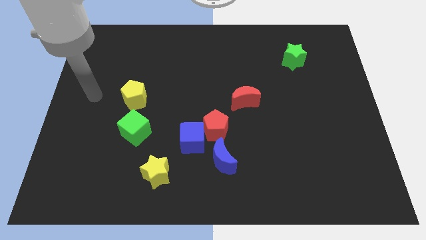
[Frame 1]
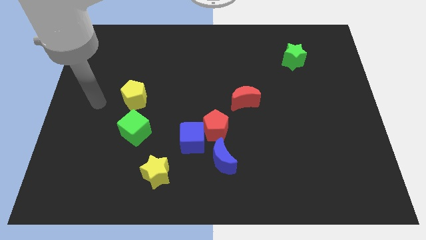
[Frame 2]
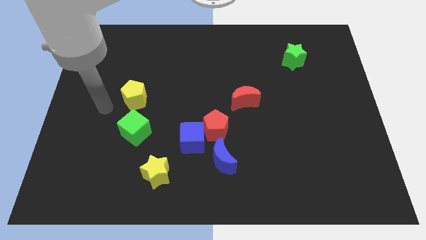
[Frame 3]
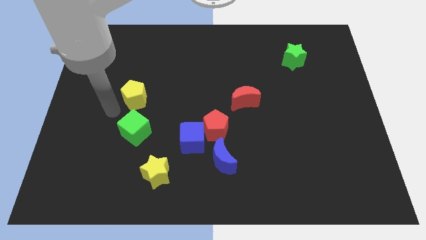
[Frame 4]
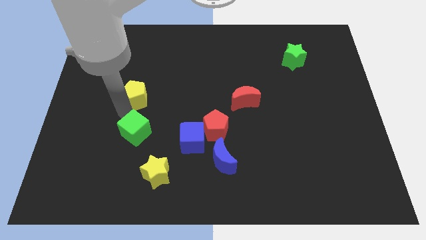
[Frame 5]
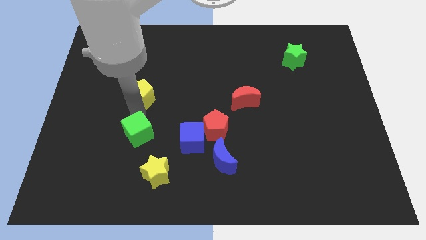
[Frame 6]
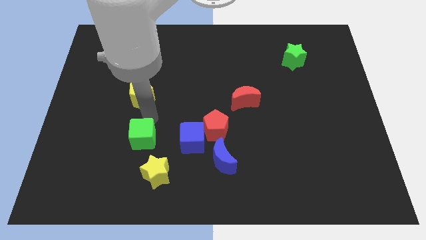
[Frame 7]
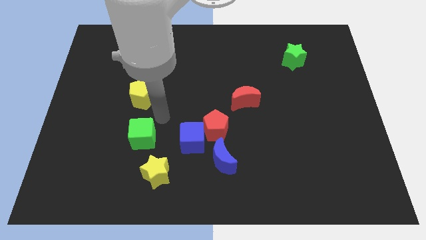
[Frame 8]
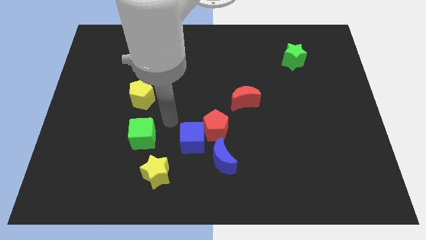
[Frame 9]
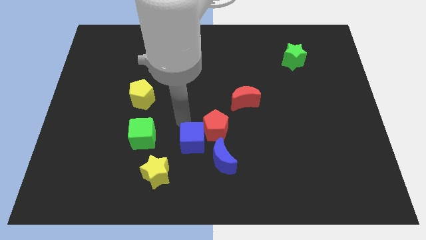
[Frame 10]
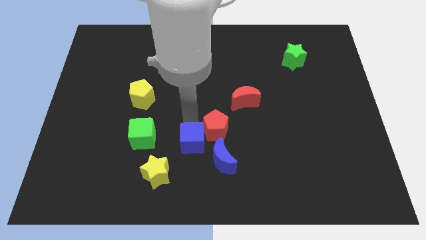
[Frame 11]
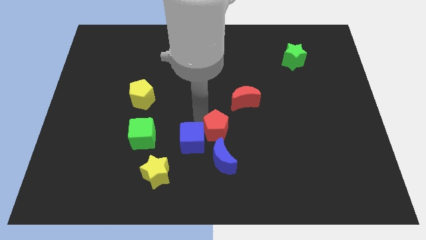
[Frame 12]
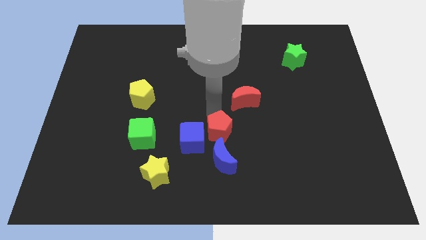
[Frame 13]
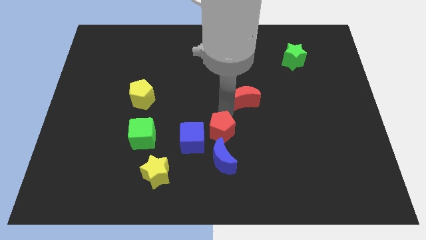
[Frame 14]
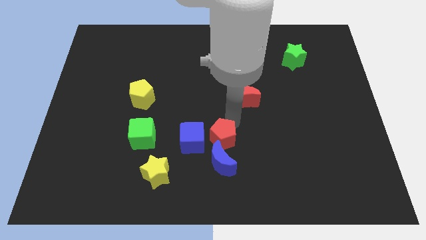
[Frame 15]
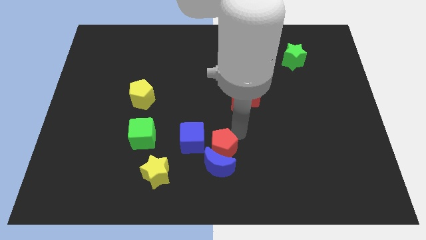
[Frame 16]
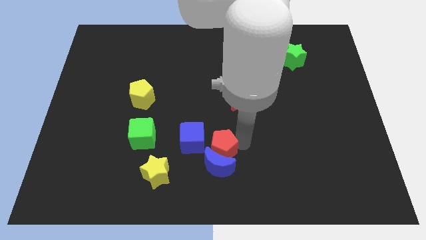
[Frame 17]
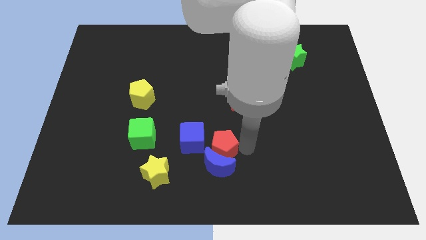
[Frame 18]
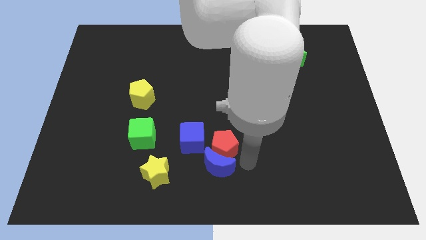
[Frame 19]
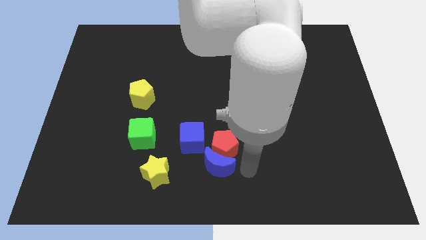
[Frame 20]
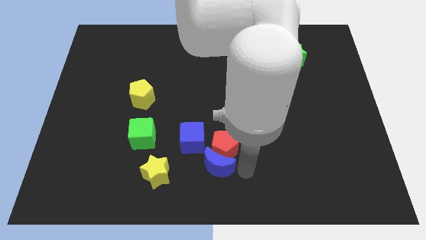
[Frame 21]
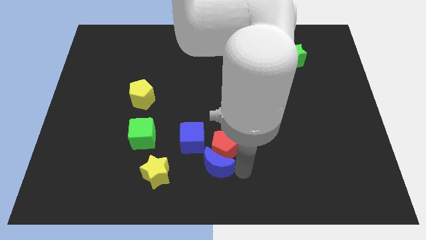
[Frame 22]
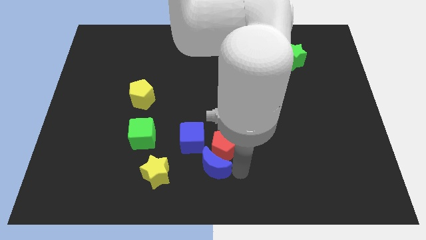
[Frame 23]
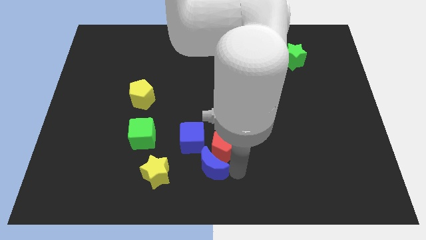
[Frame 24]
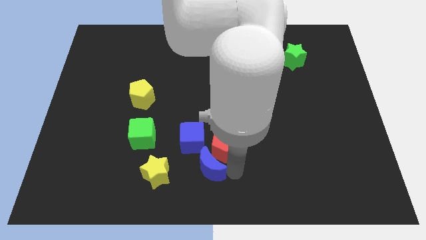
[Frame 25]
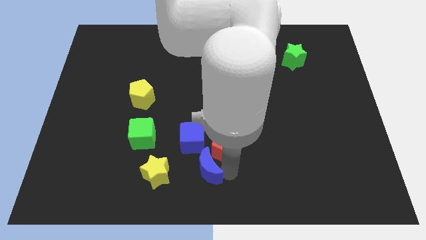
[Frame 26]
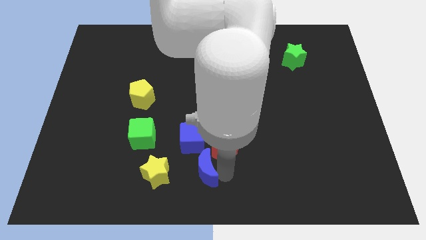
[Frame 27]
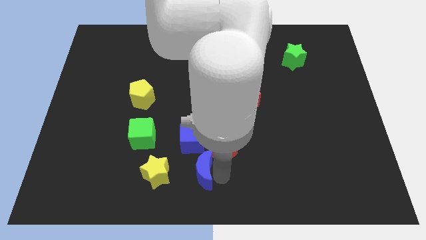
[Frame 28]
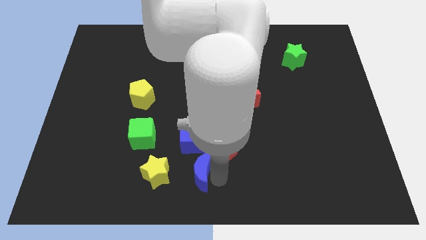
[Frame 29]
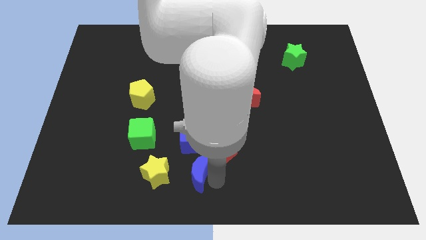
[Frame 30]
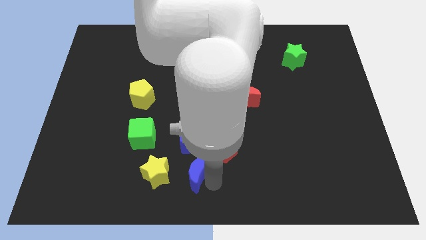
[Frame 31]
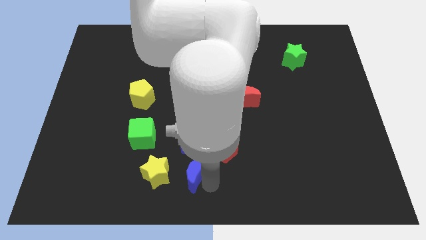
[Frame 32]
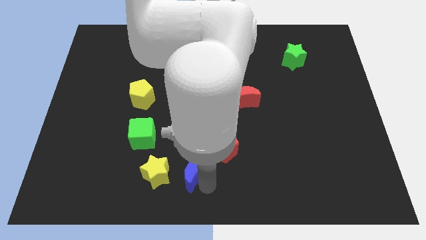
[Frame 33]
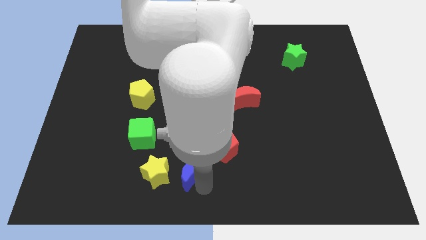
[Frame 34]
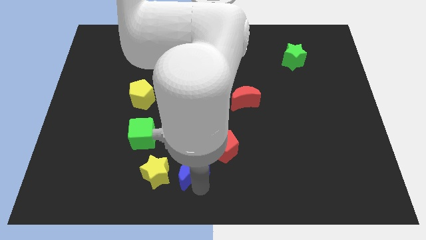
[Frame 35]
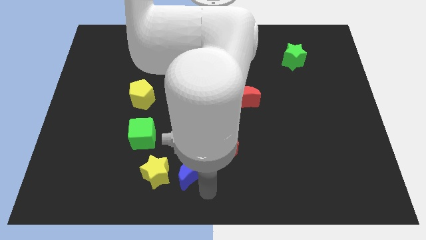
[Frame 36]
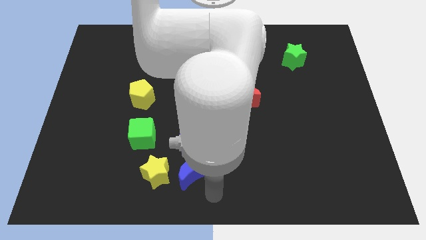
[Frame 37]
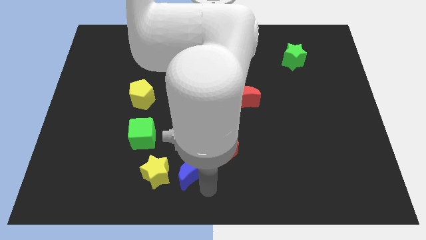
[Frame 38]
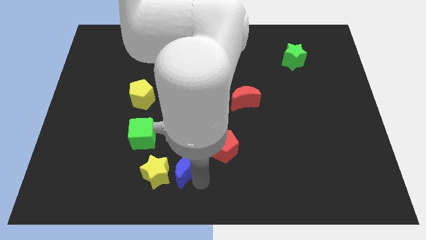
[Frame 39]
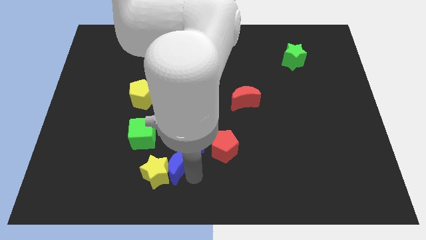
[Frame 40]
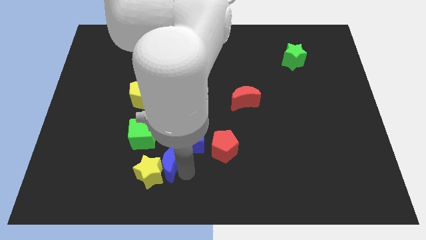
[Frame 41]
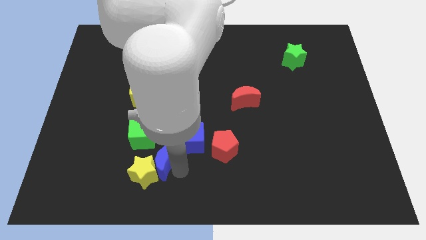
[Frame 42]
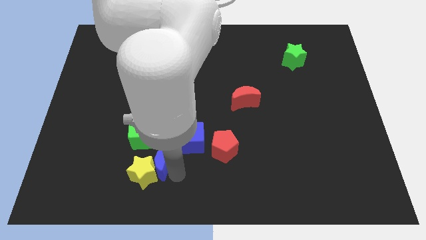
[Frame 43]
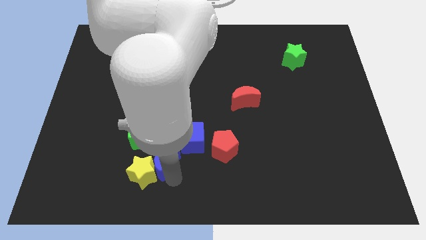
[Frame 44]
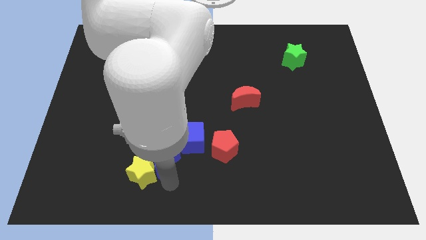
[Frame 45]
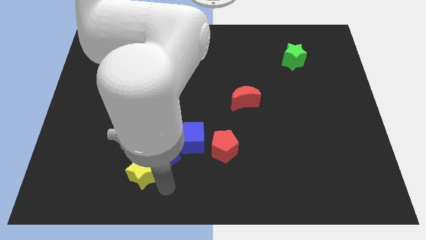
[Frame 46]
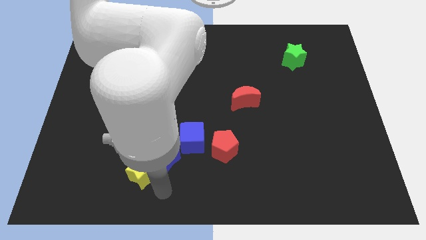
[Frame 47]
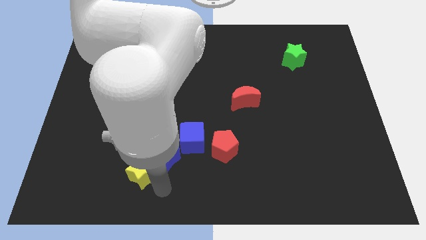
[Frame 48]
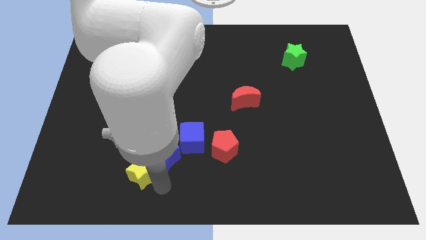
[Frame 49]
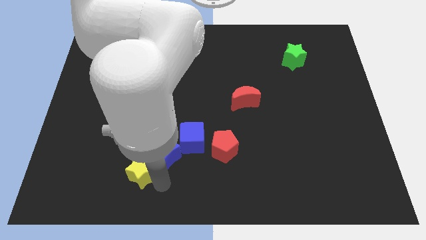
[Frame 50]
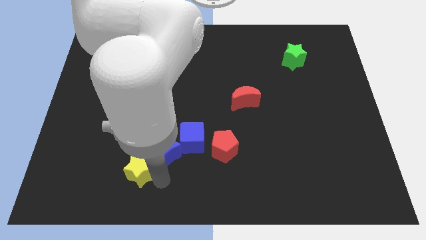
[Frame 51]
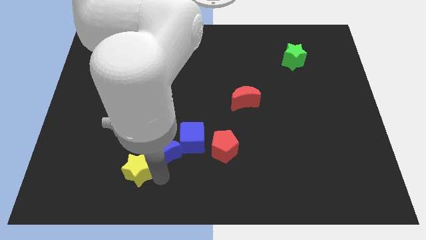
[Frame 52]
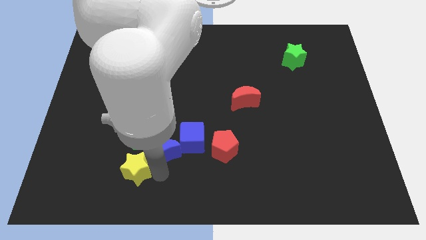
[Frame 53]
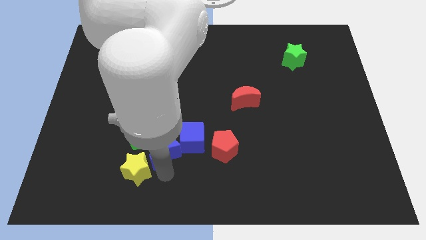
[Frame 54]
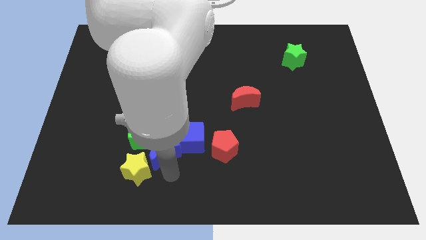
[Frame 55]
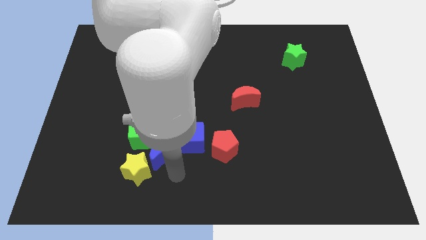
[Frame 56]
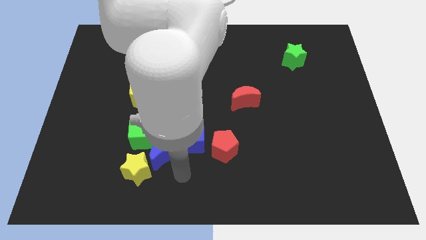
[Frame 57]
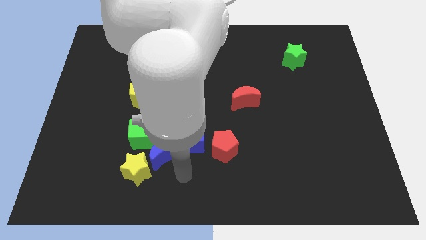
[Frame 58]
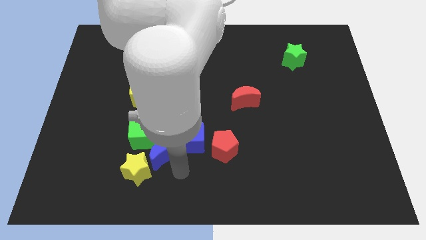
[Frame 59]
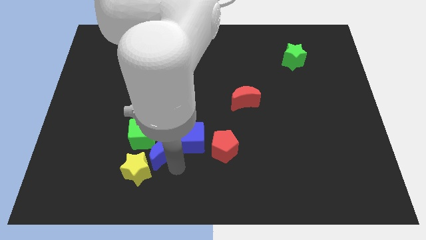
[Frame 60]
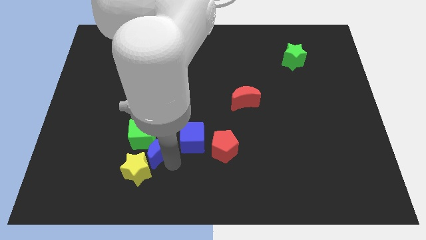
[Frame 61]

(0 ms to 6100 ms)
move the blue moon towards the green cube

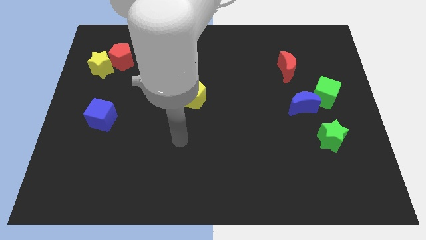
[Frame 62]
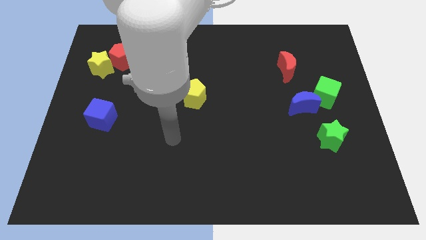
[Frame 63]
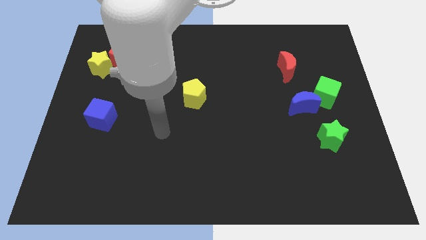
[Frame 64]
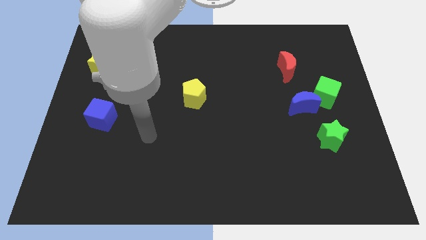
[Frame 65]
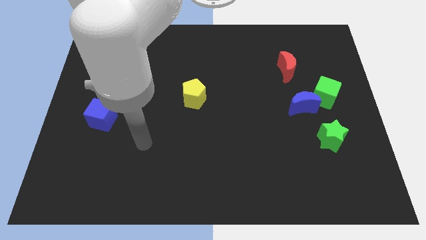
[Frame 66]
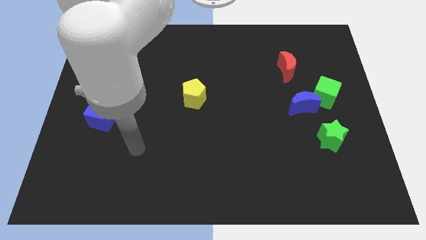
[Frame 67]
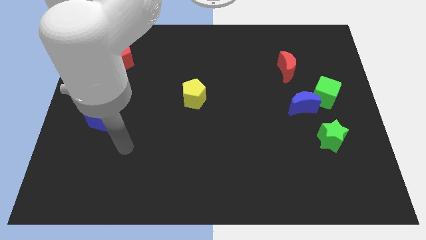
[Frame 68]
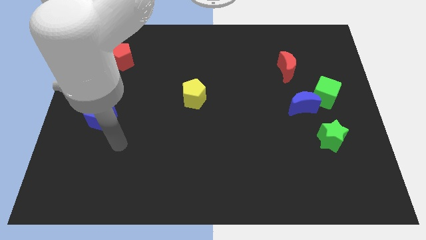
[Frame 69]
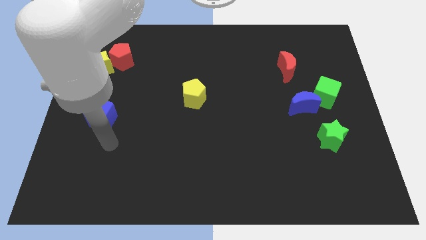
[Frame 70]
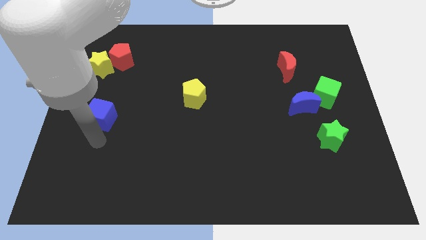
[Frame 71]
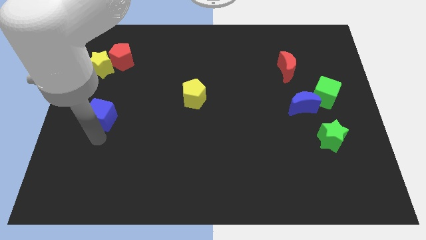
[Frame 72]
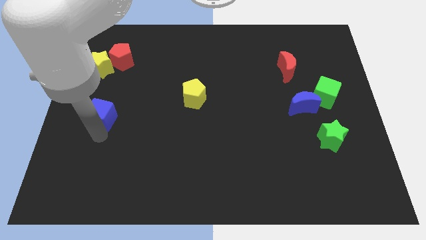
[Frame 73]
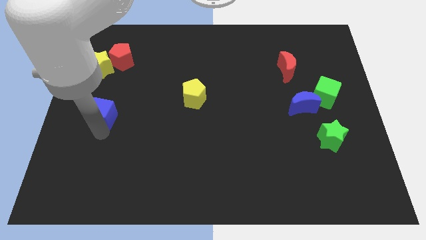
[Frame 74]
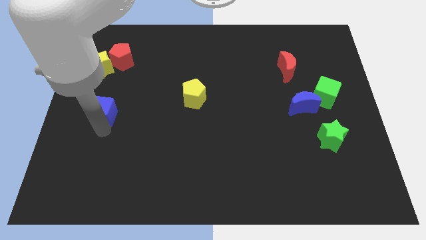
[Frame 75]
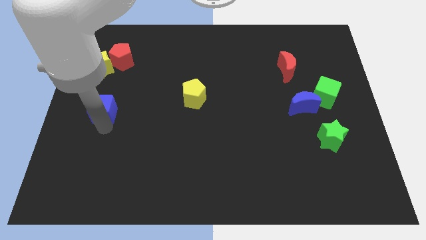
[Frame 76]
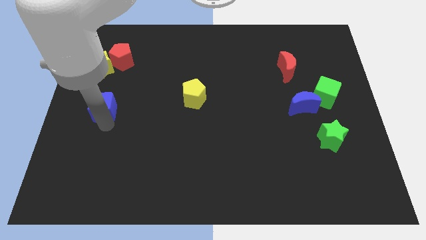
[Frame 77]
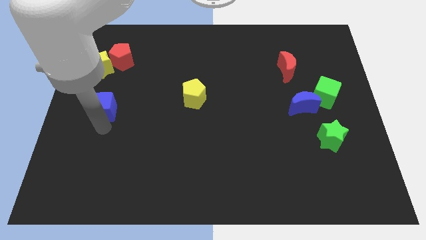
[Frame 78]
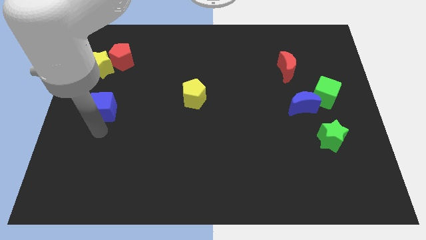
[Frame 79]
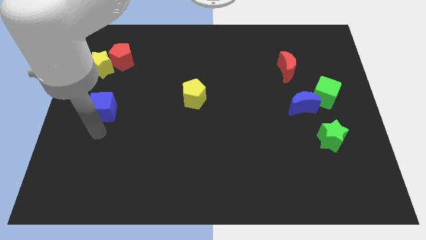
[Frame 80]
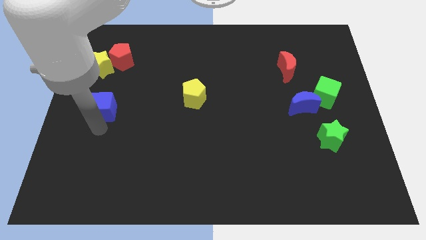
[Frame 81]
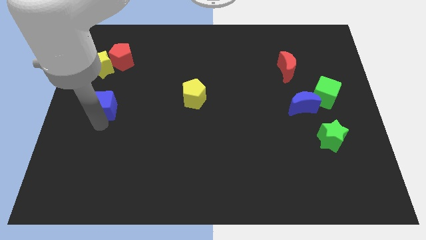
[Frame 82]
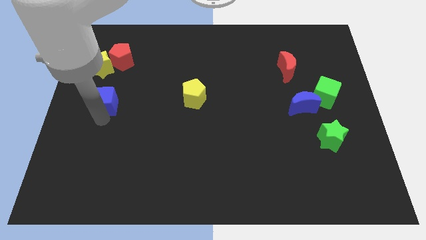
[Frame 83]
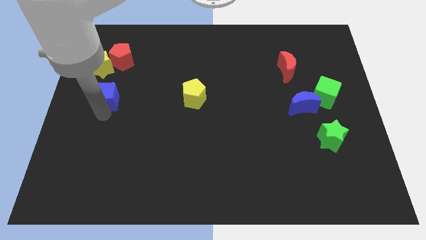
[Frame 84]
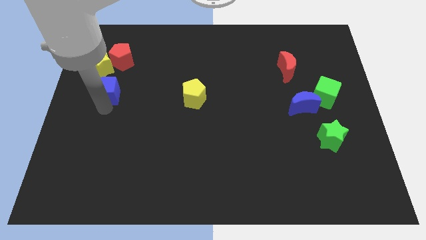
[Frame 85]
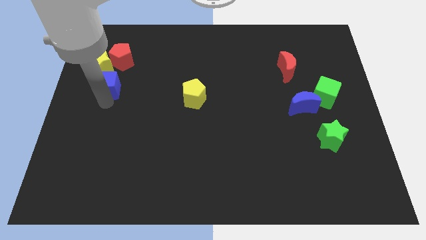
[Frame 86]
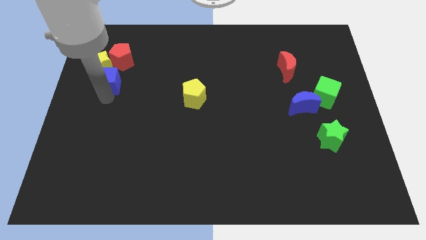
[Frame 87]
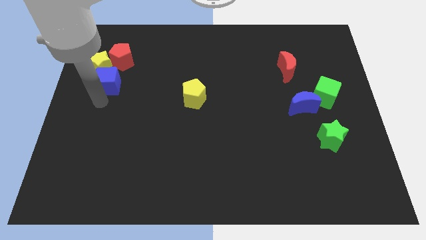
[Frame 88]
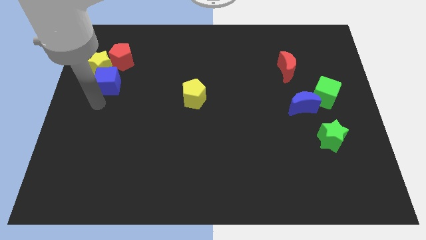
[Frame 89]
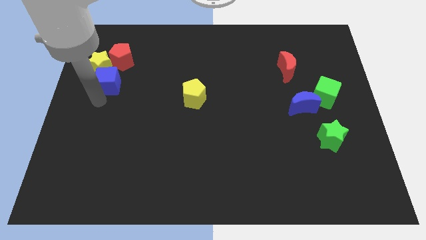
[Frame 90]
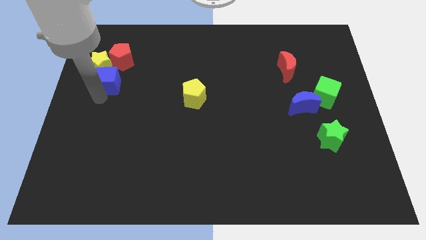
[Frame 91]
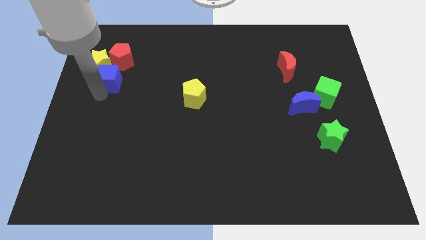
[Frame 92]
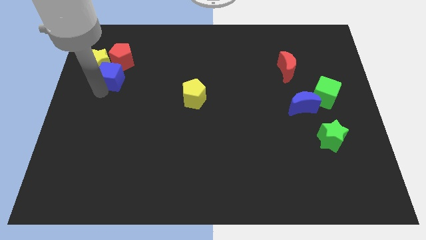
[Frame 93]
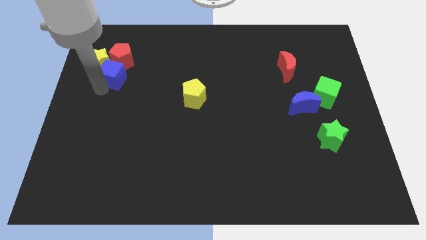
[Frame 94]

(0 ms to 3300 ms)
move the blue cube towards the red pentagon
